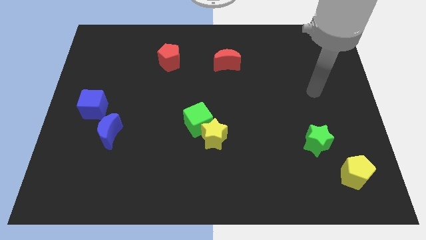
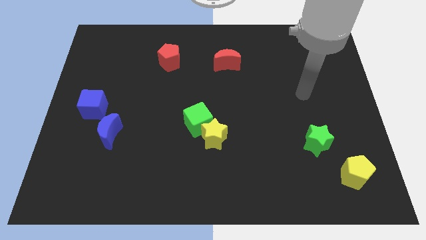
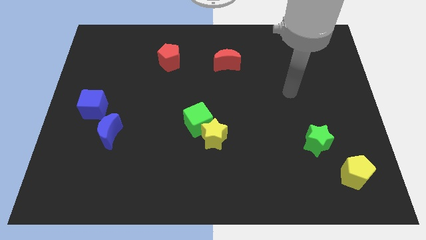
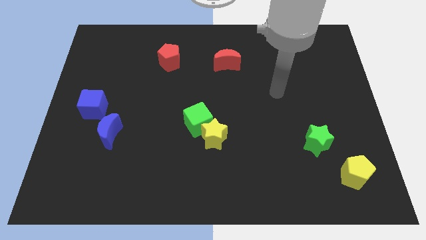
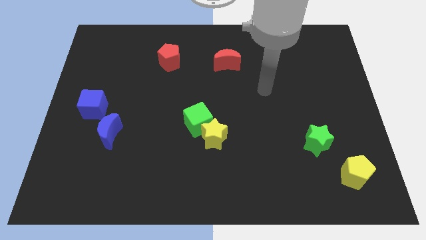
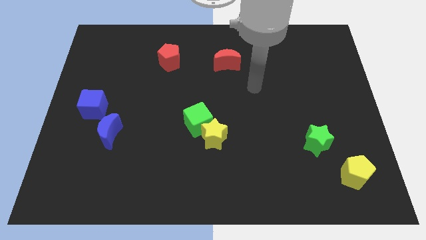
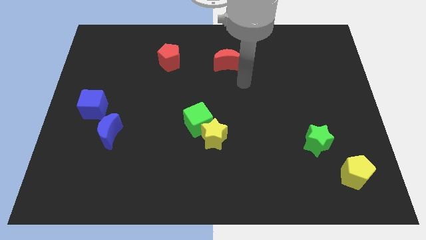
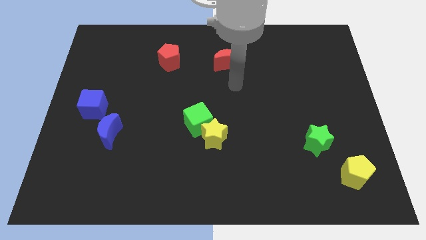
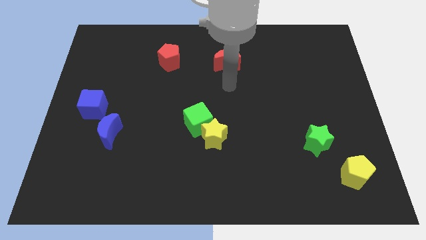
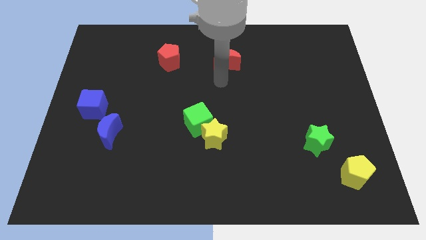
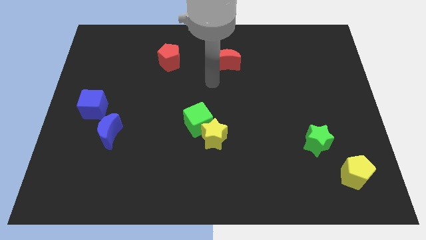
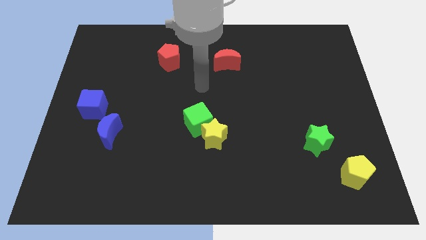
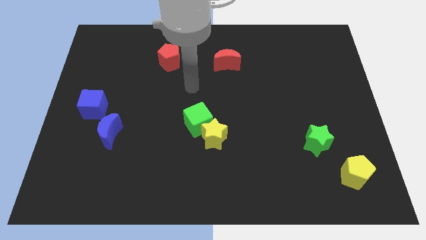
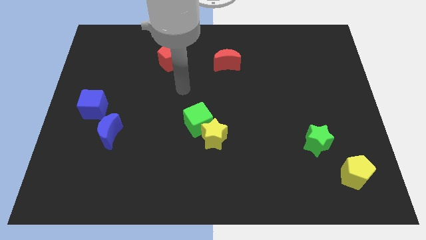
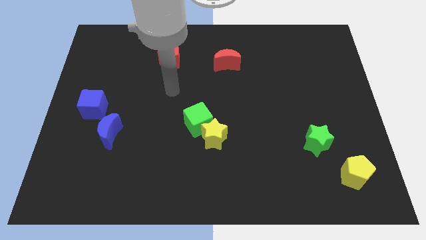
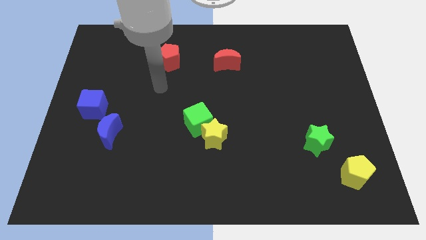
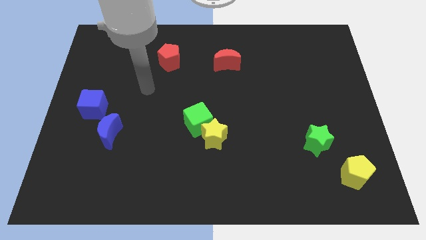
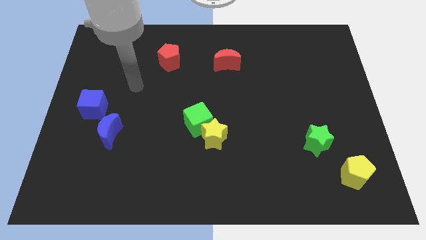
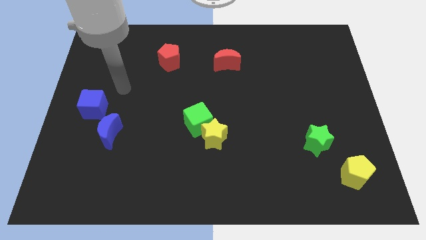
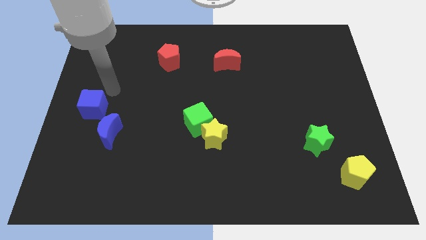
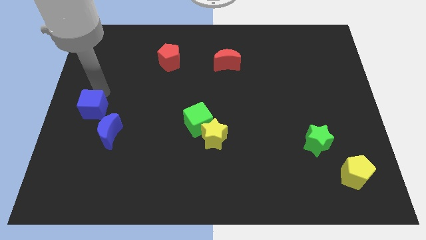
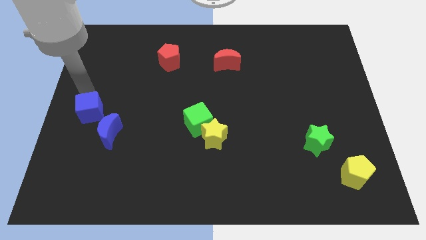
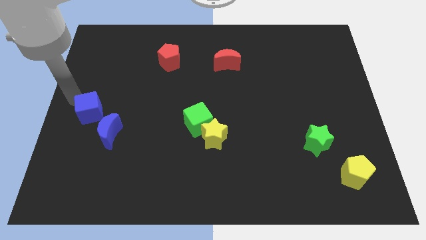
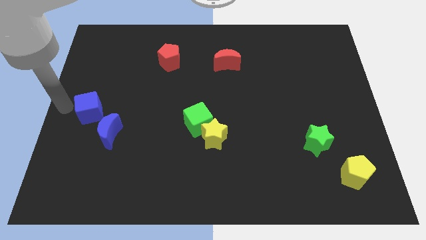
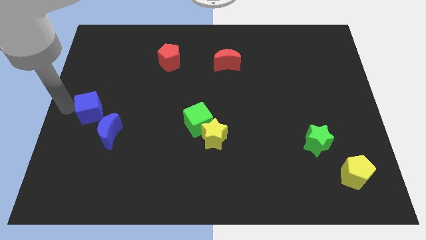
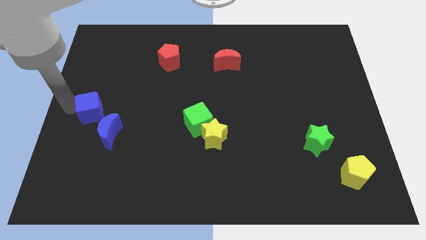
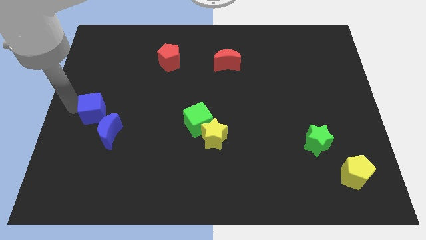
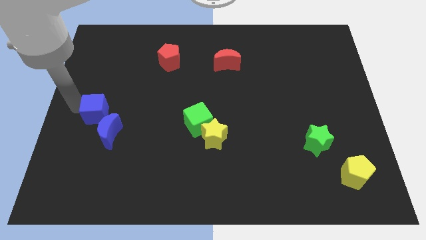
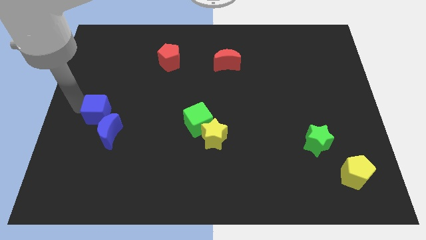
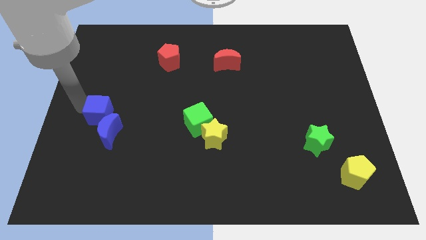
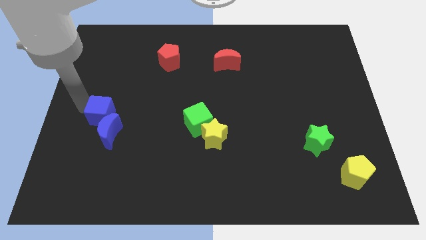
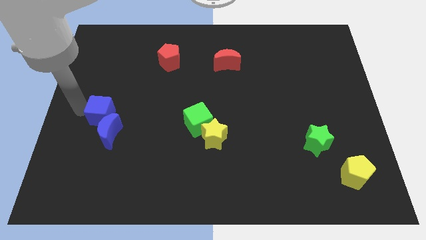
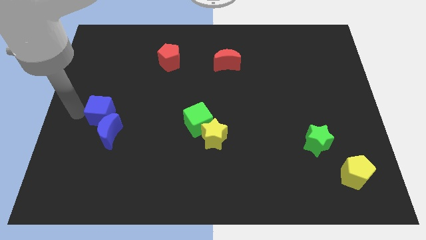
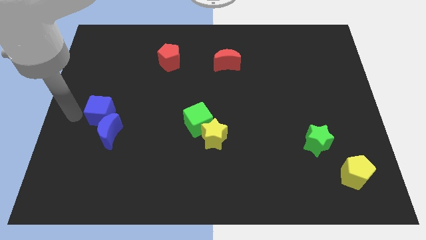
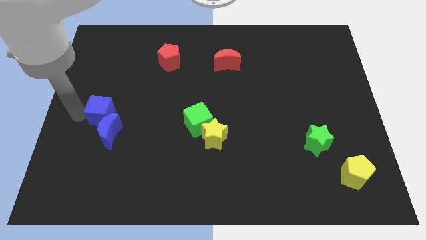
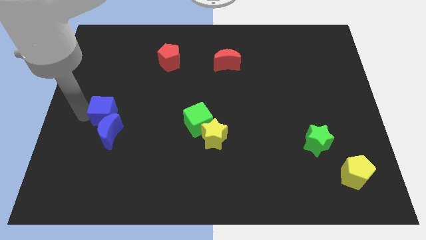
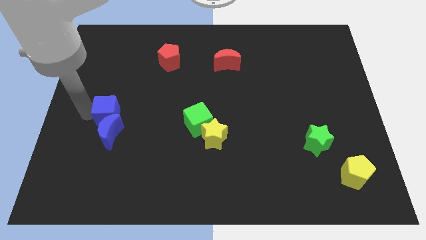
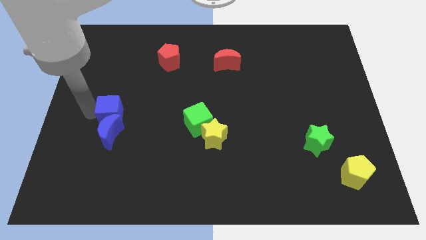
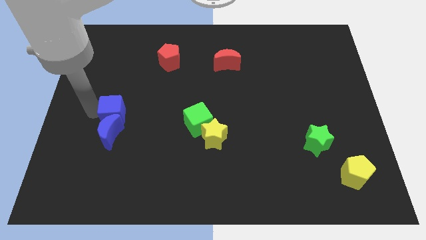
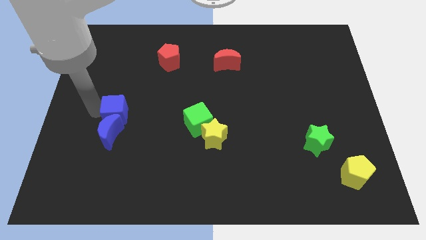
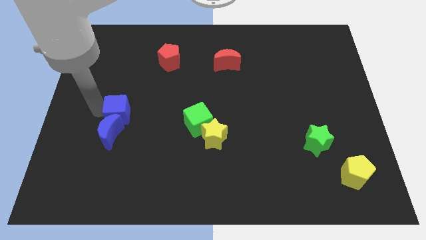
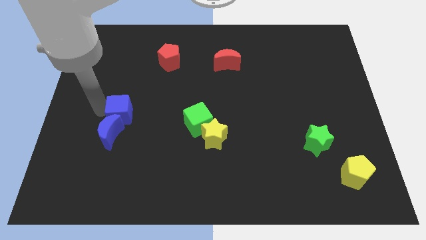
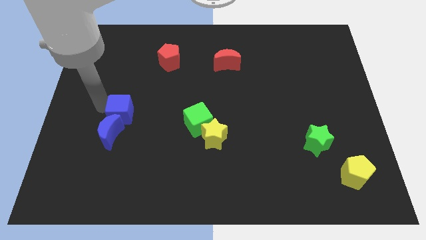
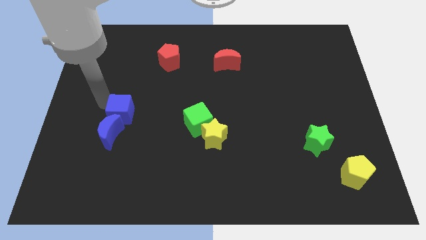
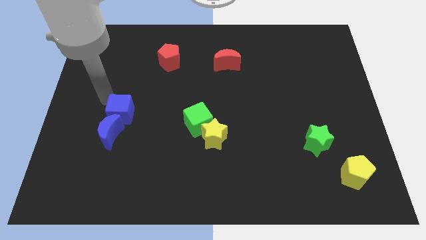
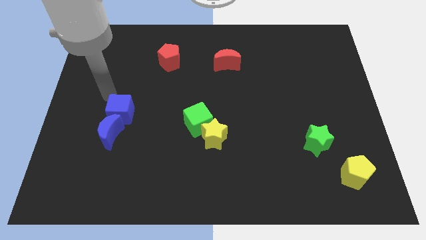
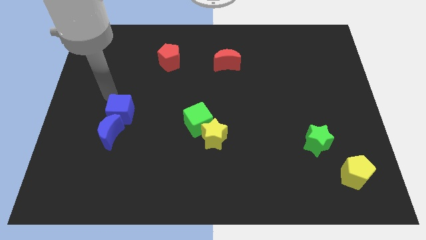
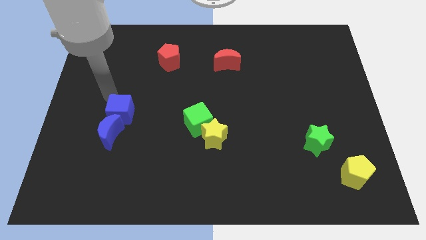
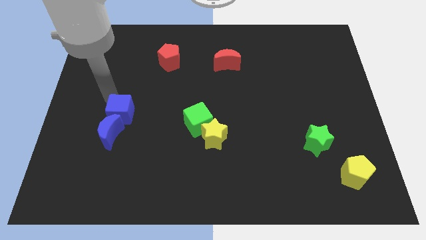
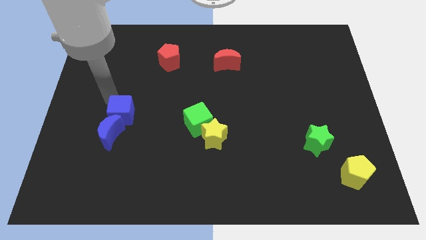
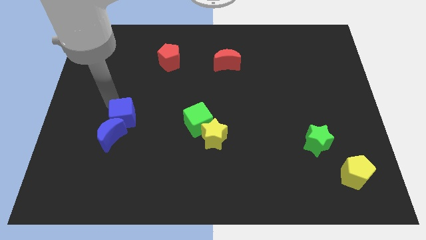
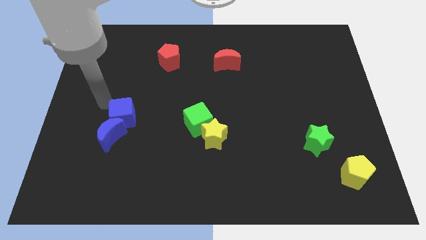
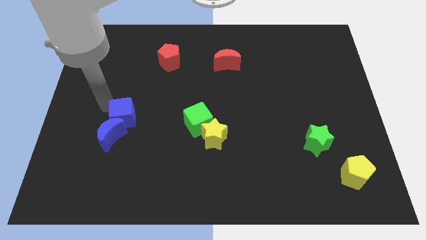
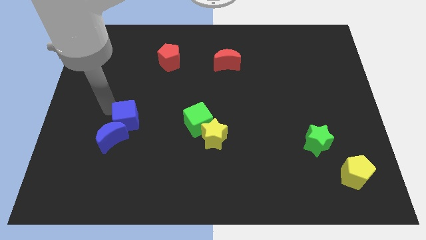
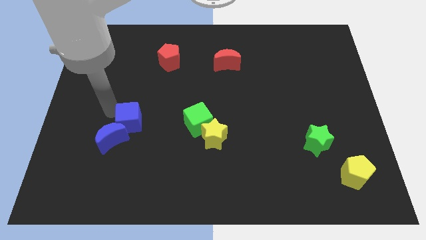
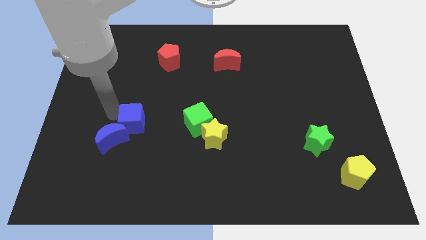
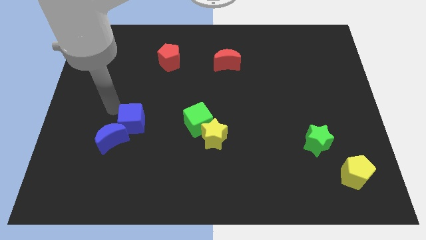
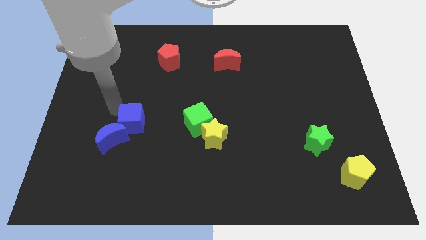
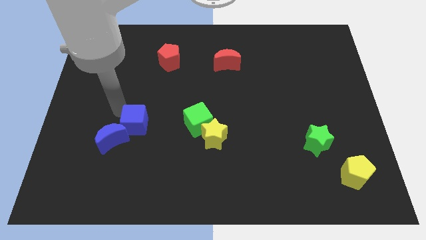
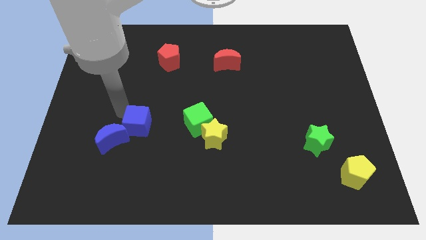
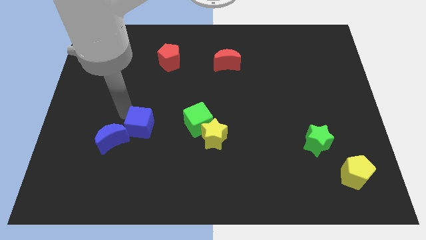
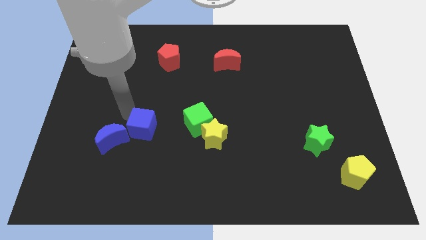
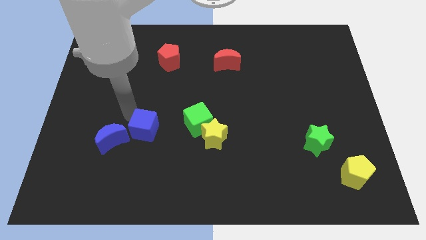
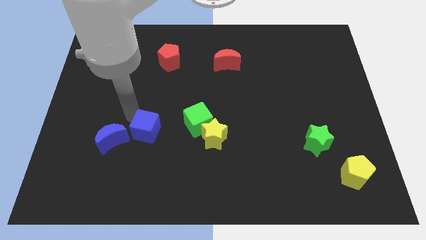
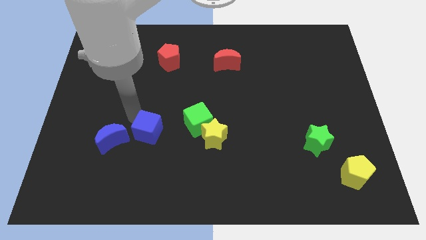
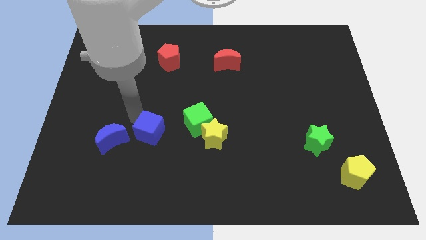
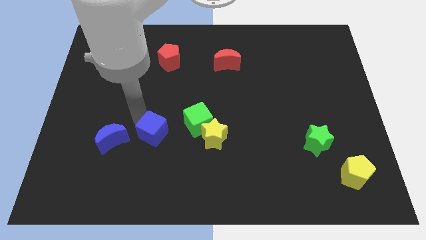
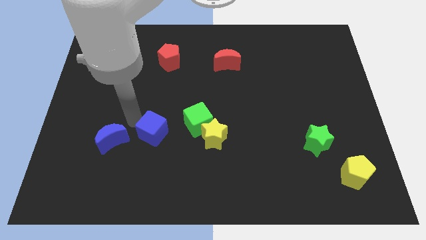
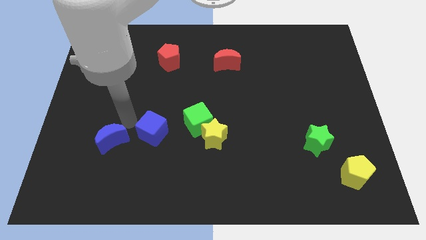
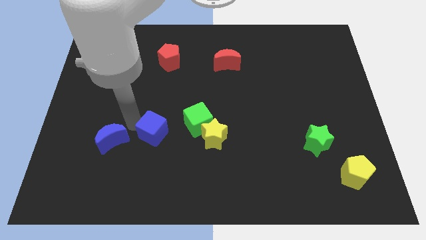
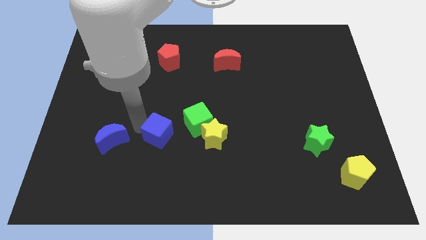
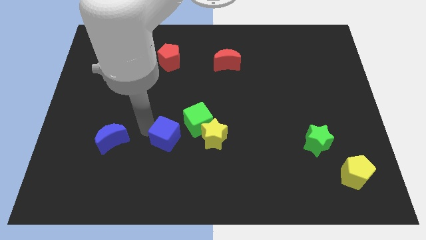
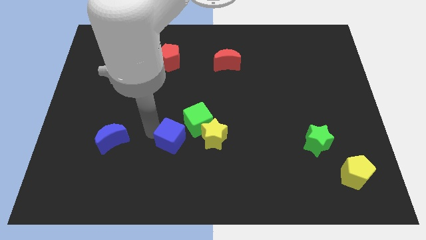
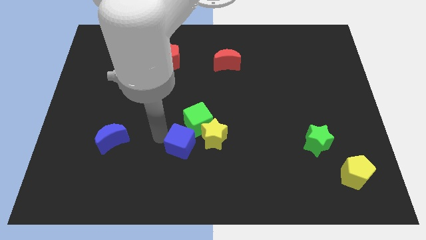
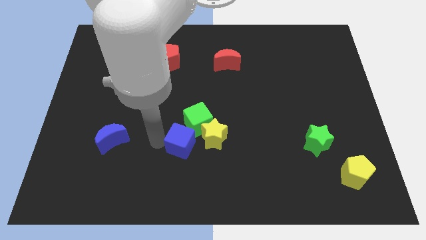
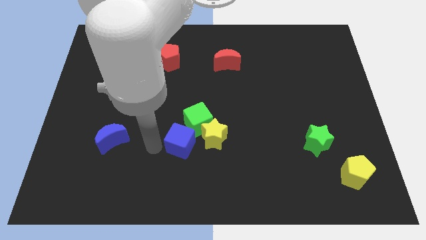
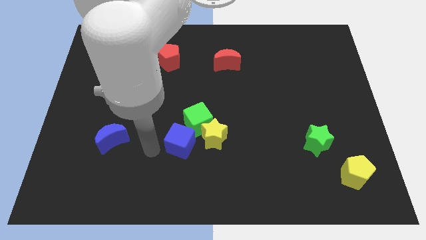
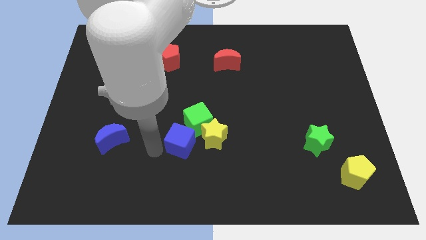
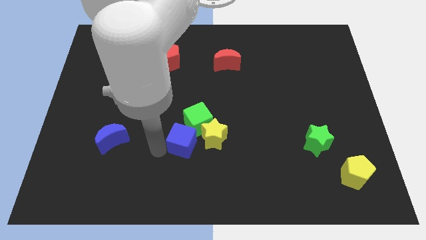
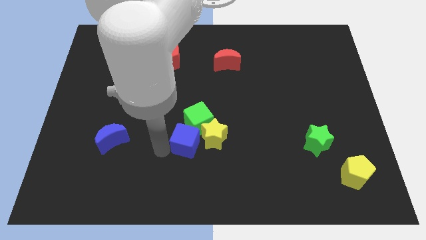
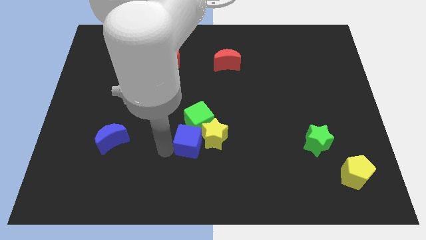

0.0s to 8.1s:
push the blue cube towards the yellow star
